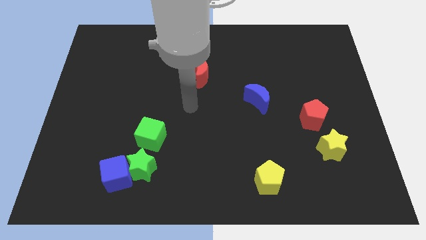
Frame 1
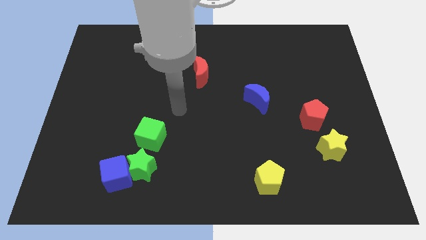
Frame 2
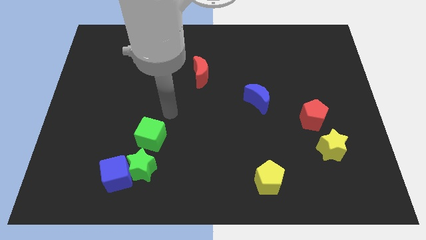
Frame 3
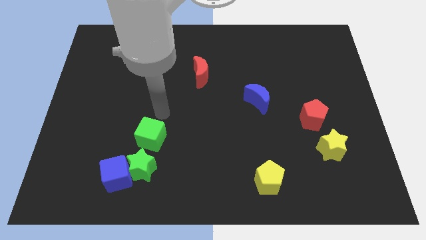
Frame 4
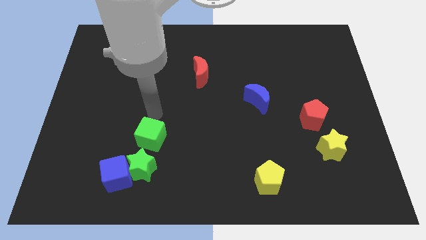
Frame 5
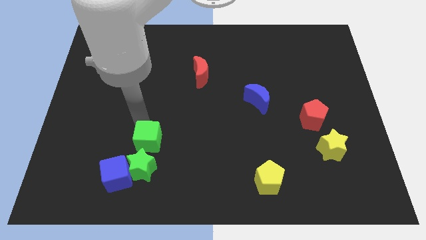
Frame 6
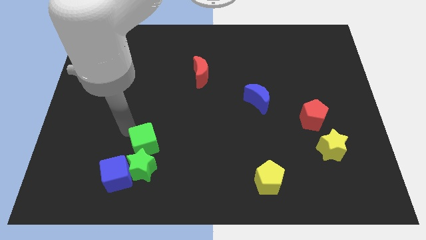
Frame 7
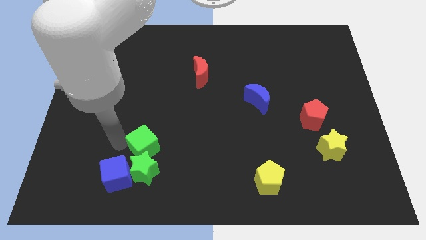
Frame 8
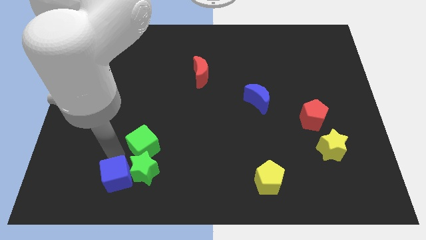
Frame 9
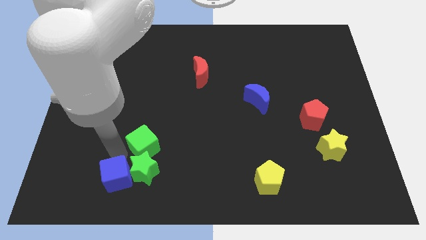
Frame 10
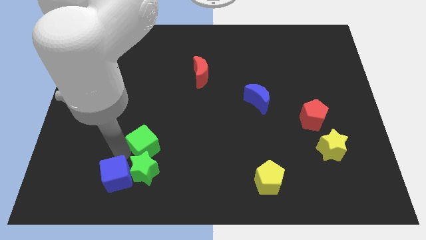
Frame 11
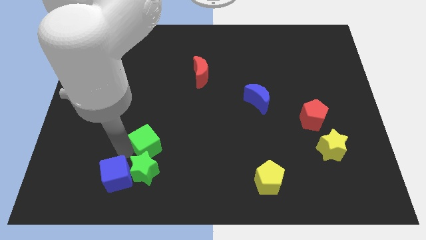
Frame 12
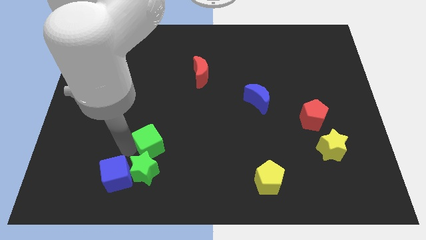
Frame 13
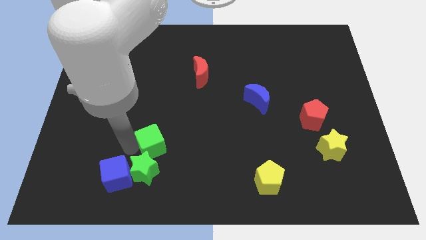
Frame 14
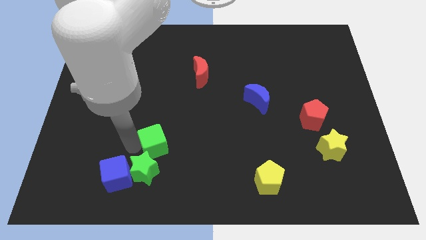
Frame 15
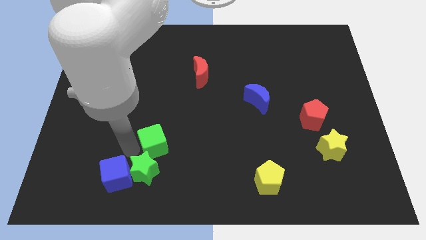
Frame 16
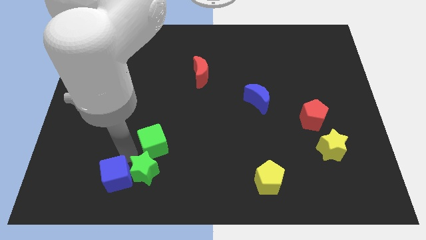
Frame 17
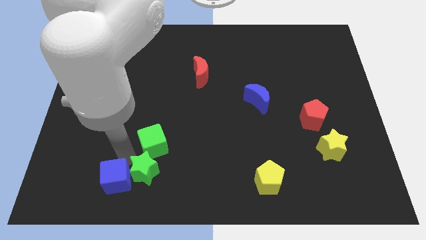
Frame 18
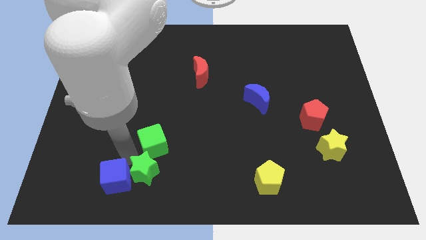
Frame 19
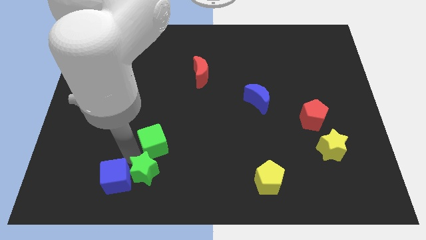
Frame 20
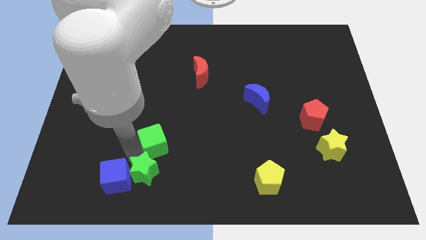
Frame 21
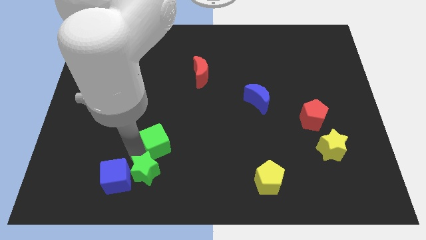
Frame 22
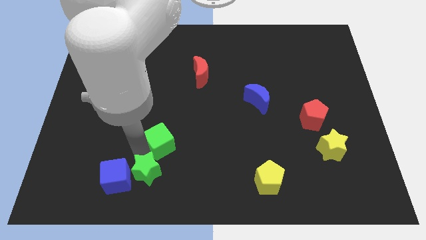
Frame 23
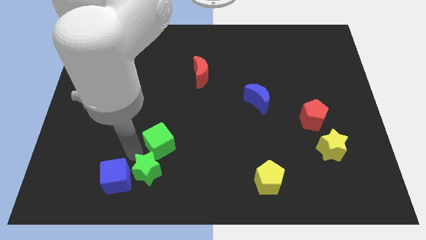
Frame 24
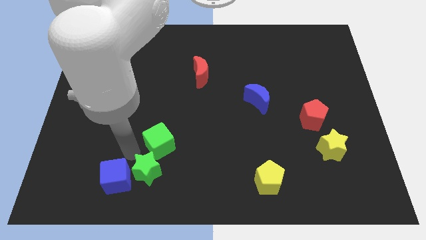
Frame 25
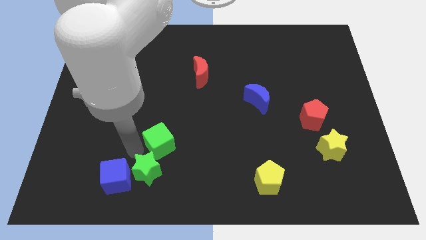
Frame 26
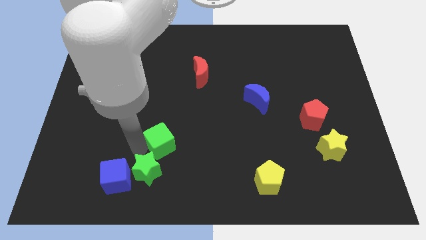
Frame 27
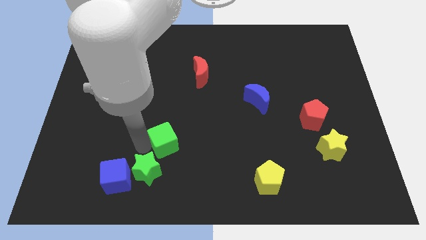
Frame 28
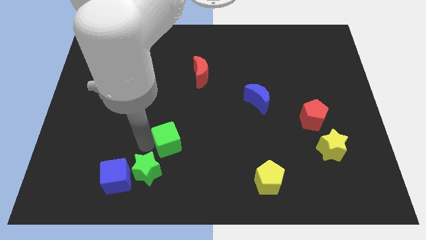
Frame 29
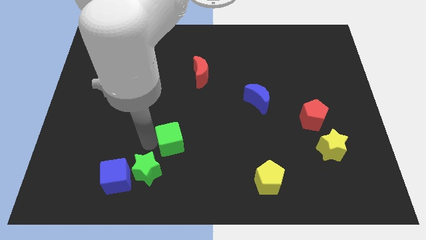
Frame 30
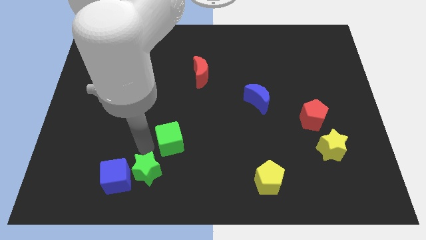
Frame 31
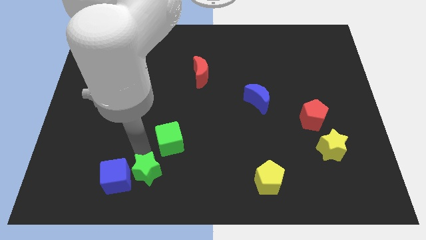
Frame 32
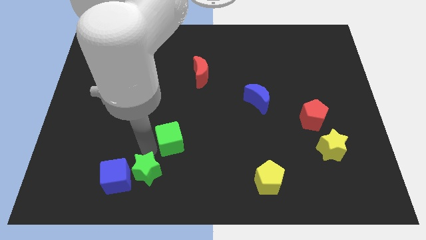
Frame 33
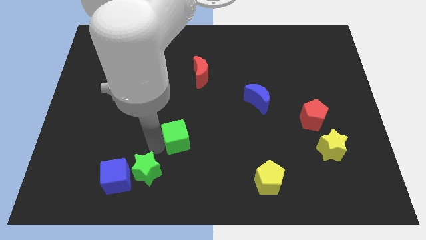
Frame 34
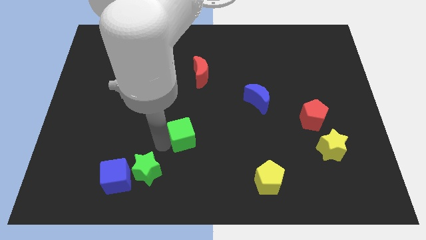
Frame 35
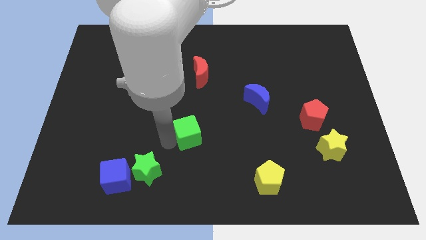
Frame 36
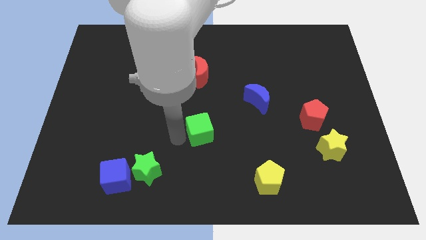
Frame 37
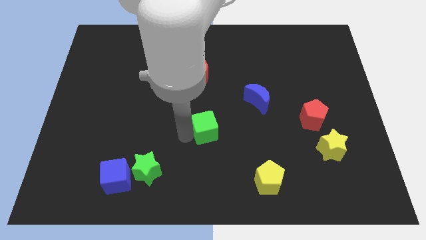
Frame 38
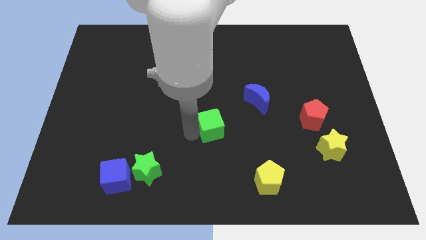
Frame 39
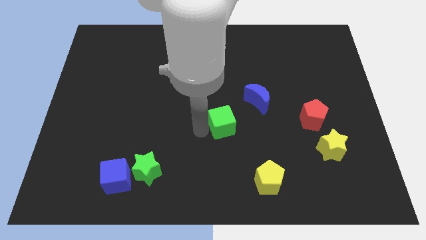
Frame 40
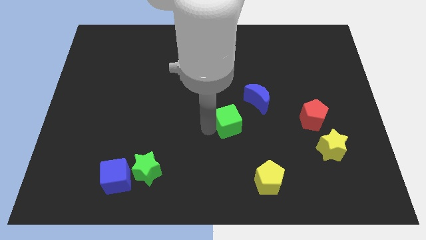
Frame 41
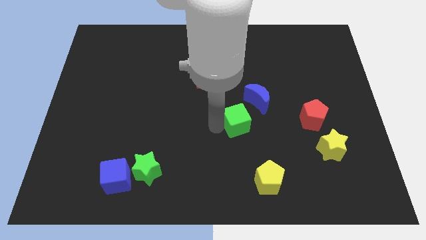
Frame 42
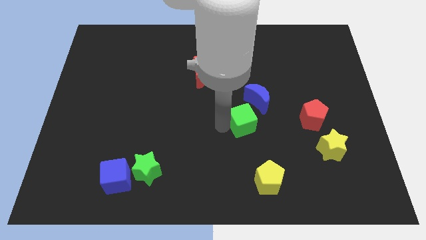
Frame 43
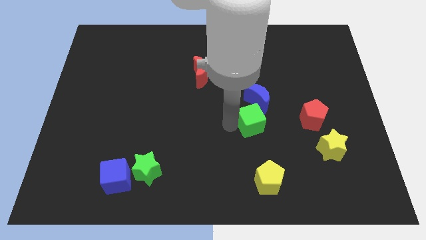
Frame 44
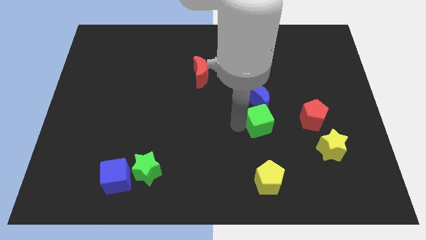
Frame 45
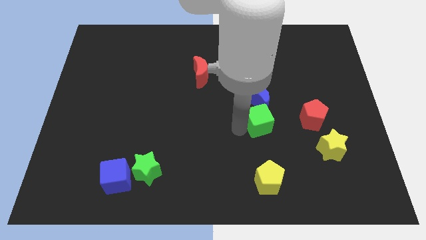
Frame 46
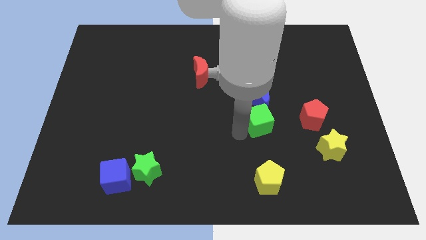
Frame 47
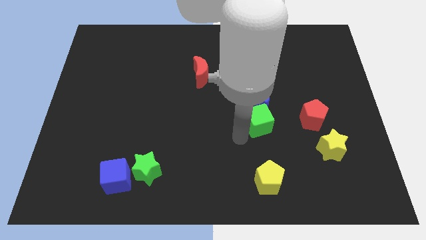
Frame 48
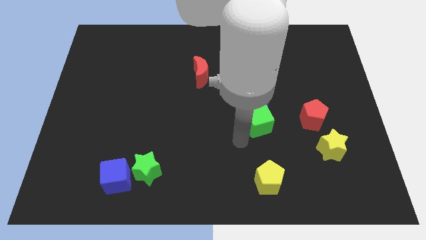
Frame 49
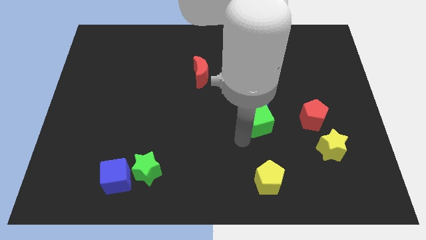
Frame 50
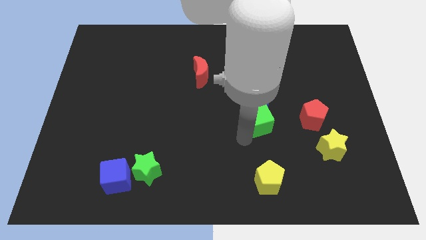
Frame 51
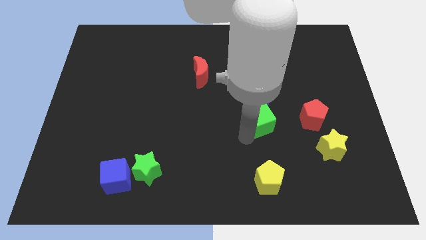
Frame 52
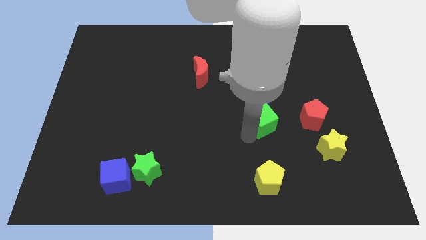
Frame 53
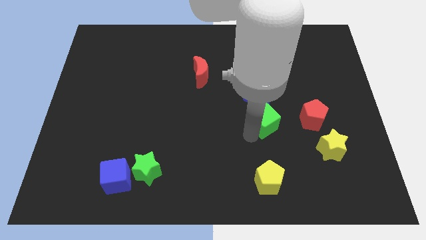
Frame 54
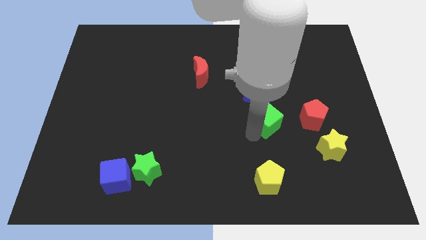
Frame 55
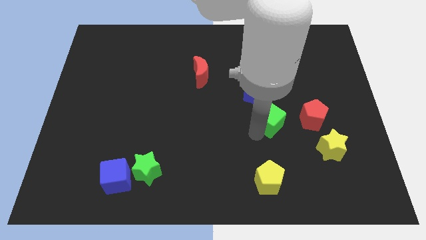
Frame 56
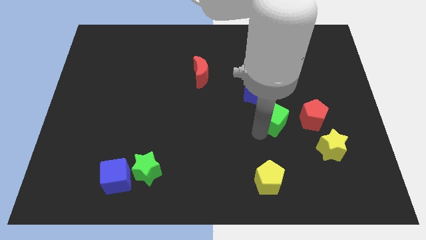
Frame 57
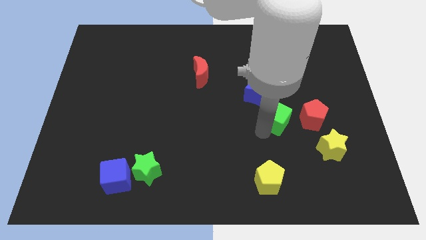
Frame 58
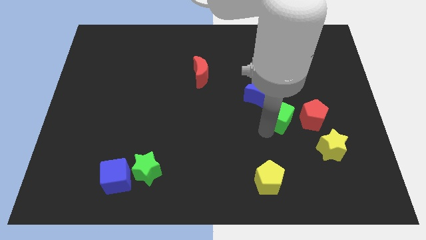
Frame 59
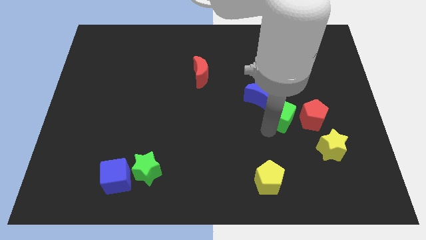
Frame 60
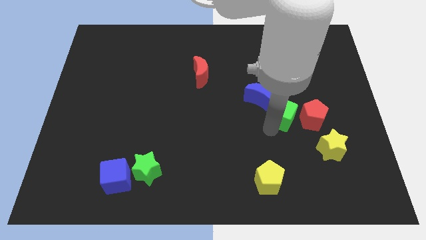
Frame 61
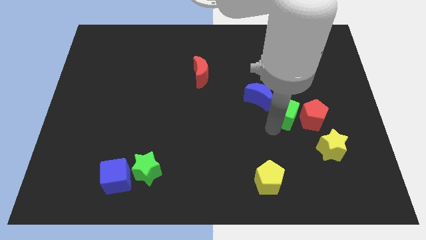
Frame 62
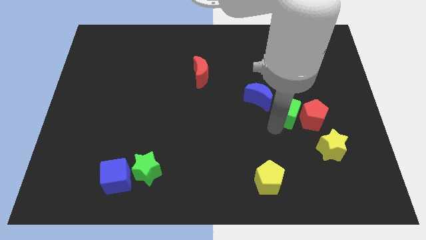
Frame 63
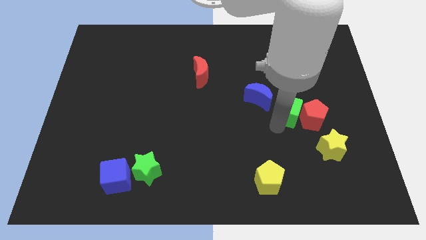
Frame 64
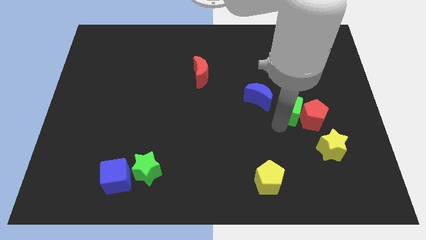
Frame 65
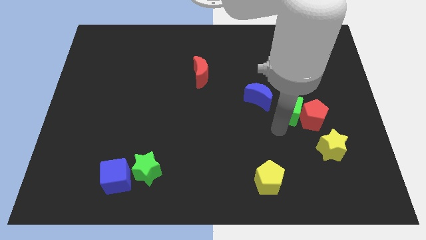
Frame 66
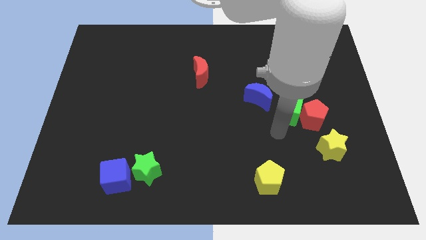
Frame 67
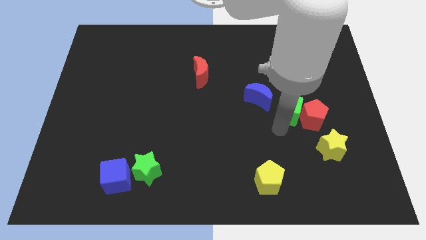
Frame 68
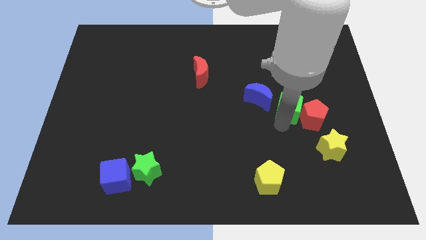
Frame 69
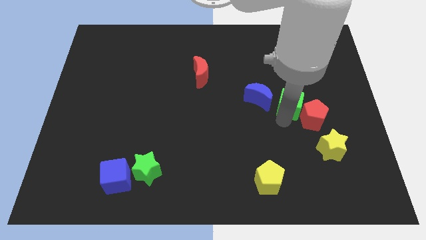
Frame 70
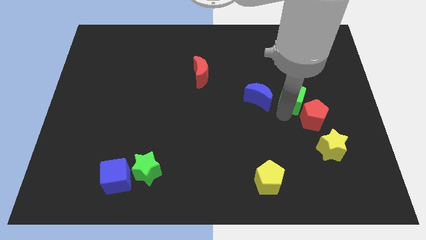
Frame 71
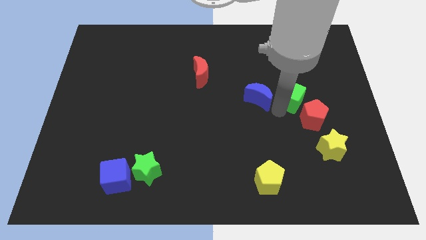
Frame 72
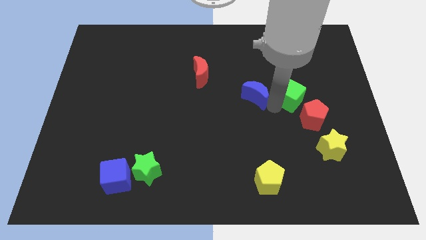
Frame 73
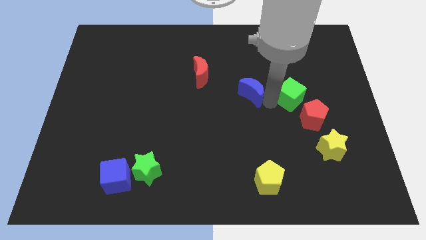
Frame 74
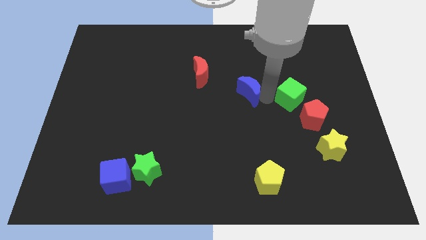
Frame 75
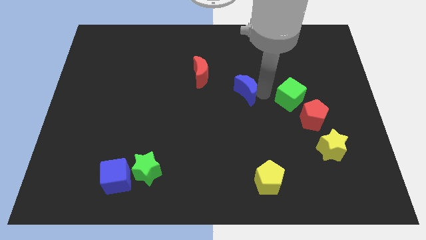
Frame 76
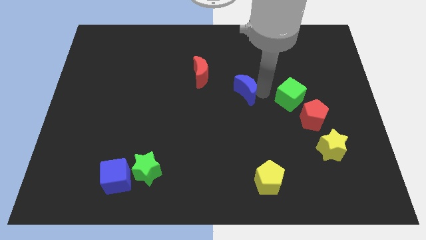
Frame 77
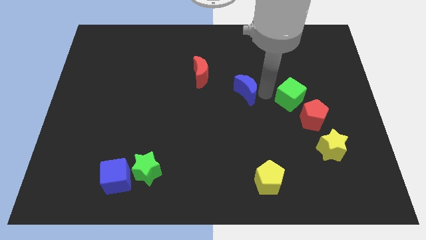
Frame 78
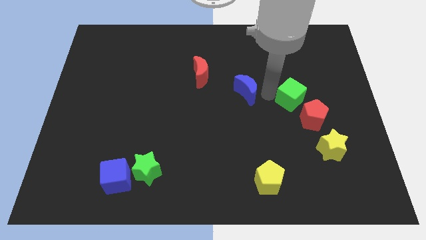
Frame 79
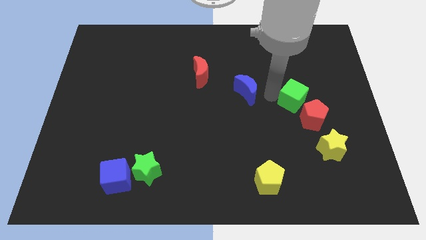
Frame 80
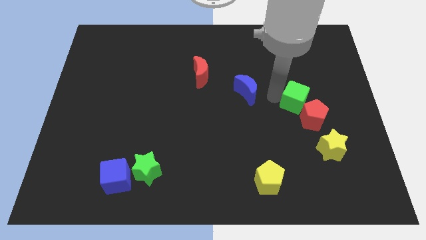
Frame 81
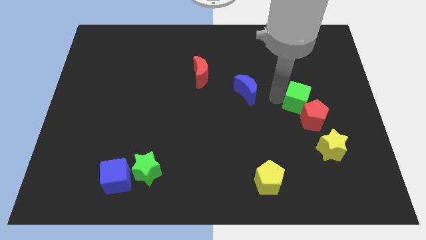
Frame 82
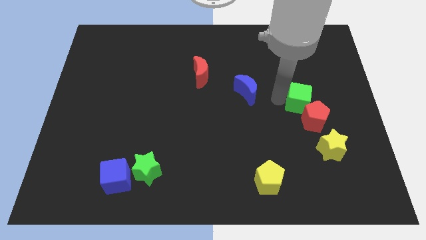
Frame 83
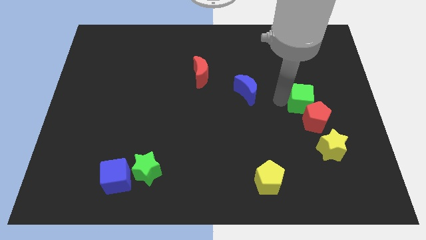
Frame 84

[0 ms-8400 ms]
slide the green cube to the top side of the yellow star
